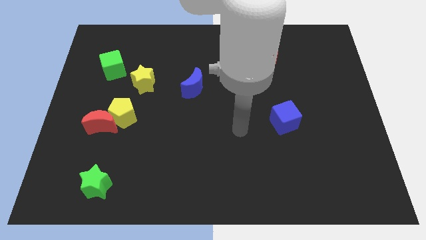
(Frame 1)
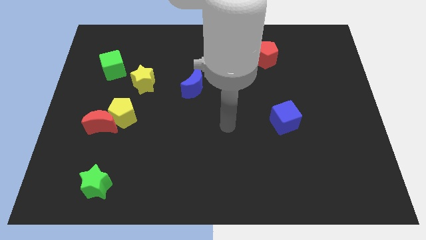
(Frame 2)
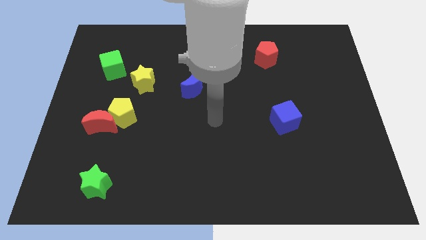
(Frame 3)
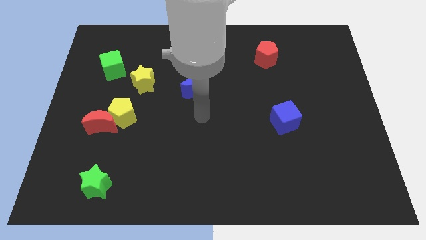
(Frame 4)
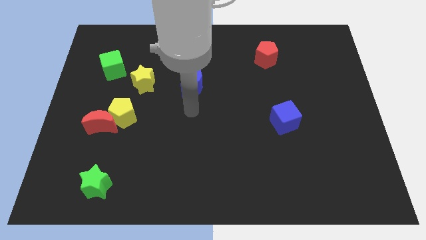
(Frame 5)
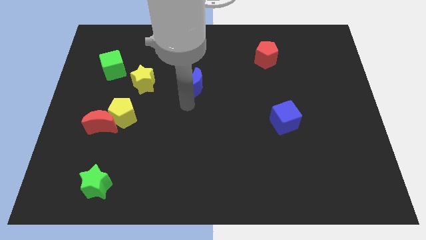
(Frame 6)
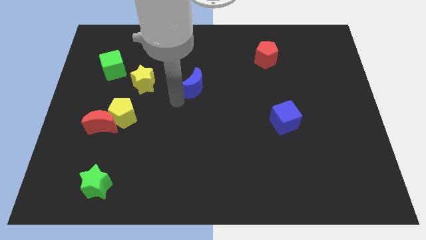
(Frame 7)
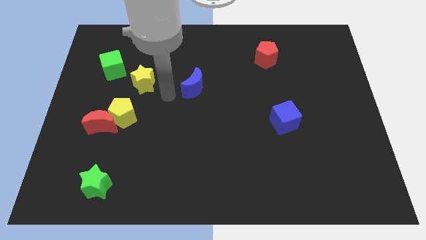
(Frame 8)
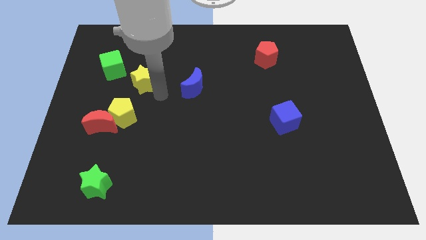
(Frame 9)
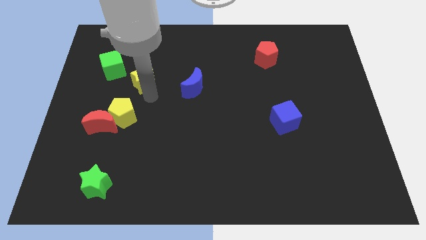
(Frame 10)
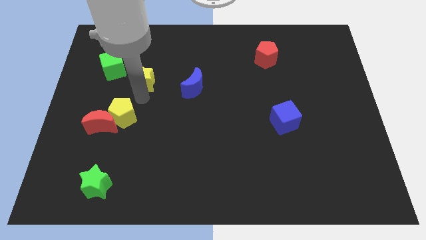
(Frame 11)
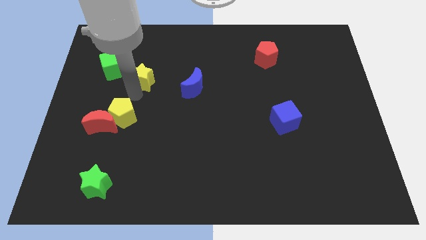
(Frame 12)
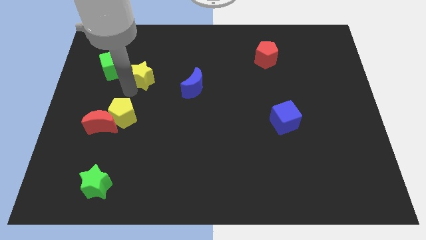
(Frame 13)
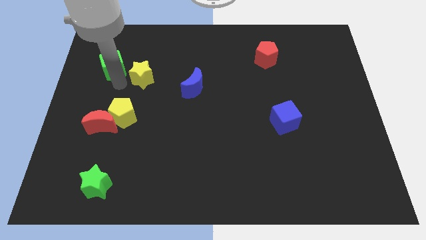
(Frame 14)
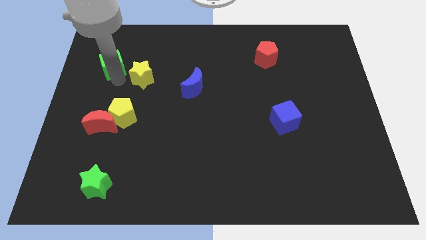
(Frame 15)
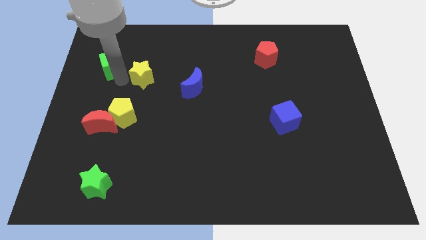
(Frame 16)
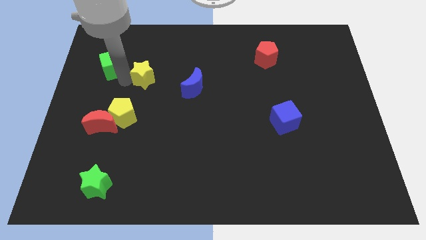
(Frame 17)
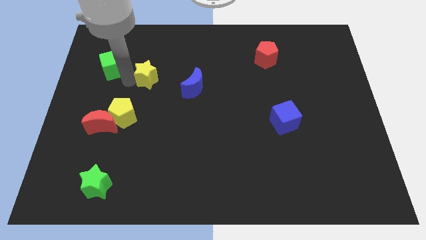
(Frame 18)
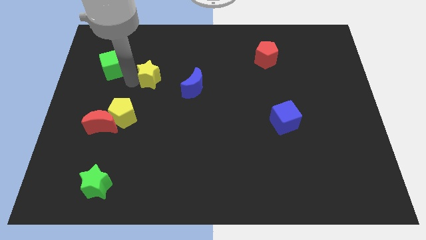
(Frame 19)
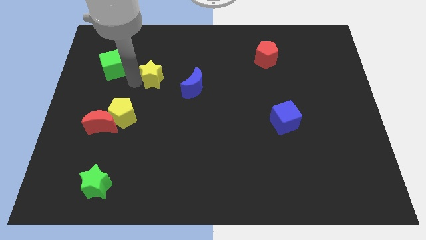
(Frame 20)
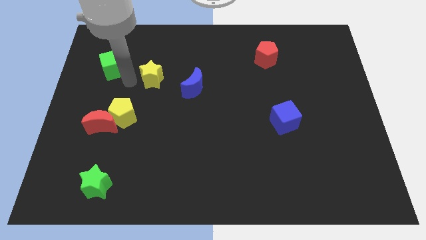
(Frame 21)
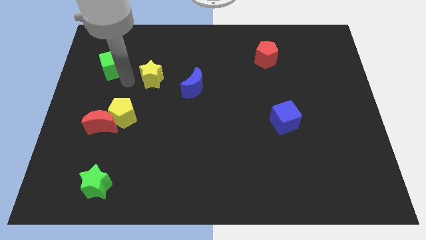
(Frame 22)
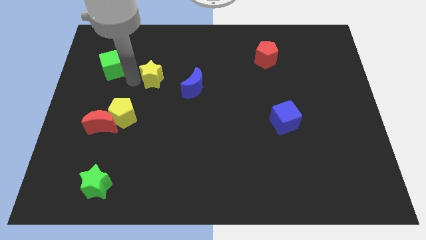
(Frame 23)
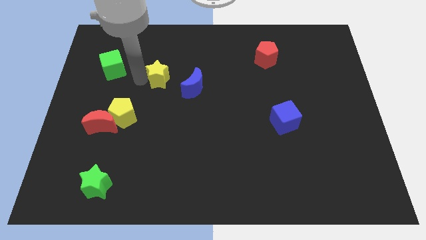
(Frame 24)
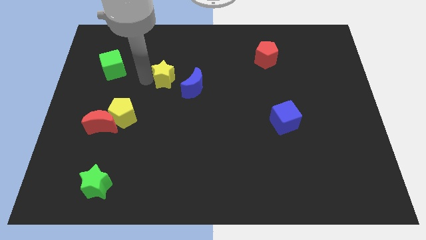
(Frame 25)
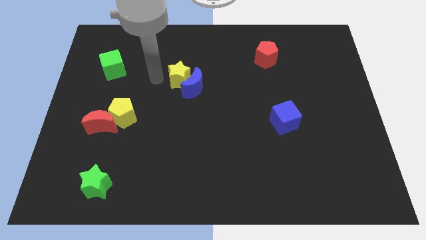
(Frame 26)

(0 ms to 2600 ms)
slide the yellow star right somewhat

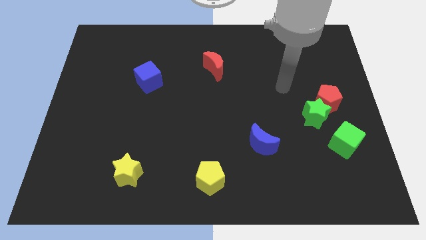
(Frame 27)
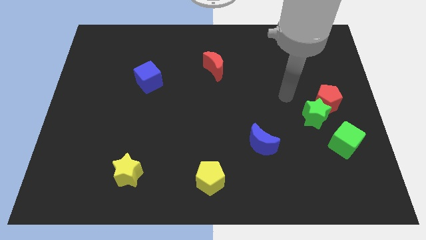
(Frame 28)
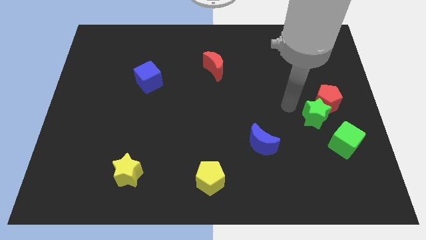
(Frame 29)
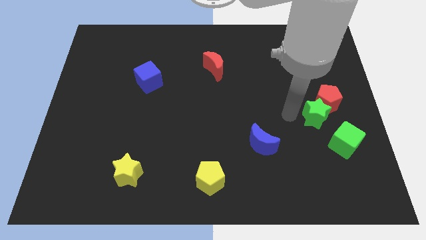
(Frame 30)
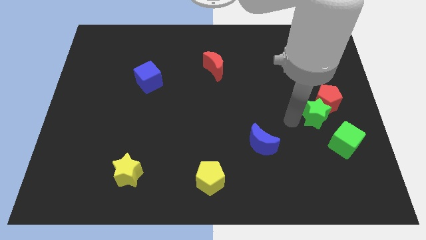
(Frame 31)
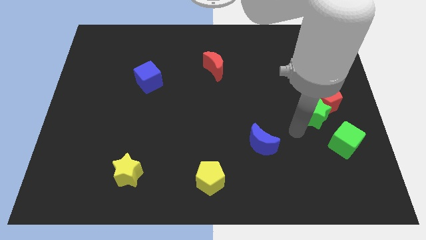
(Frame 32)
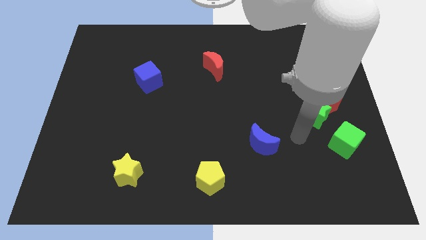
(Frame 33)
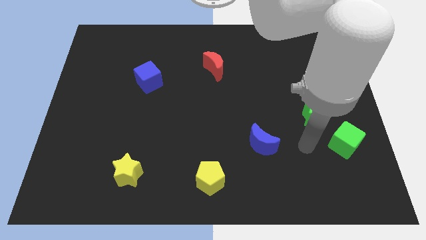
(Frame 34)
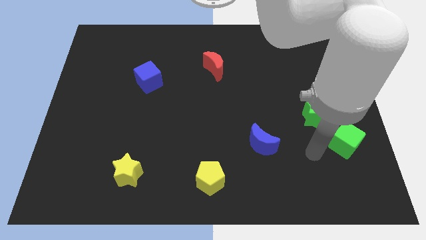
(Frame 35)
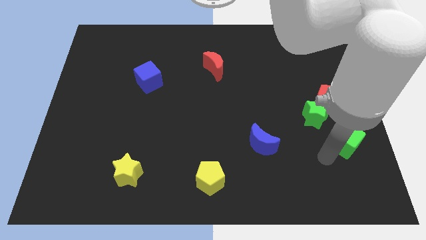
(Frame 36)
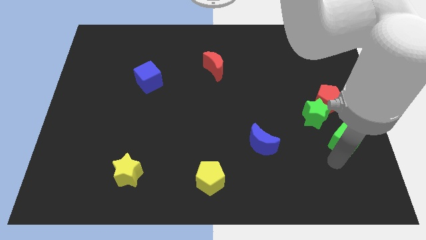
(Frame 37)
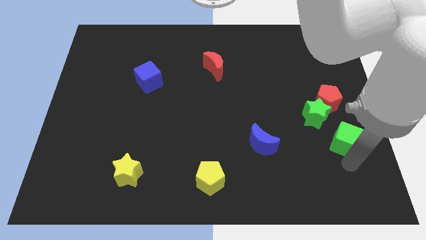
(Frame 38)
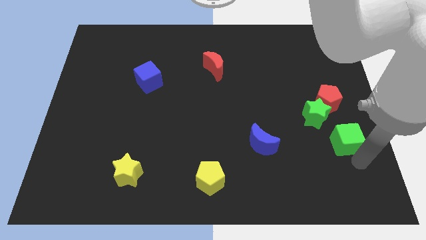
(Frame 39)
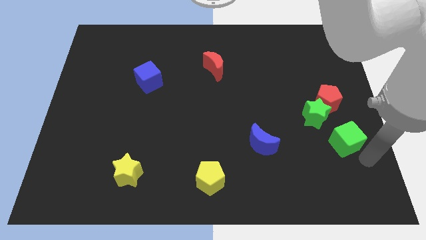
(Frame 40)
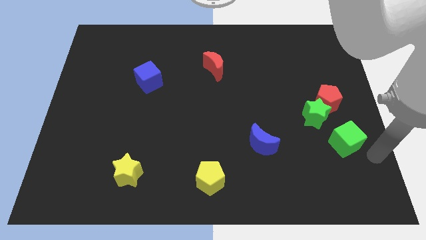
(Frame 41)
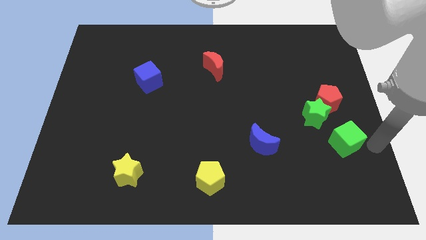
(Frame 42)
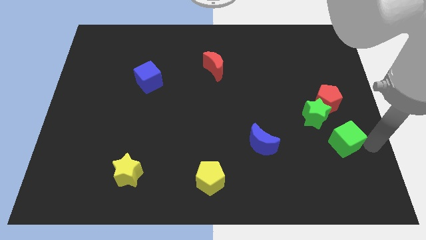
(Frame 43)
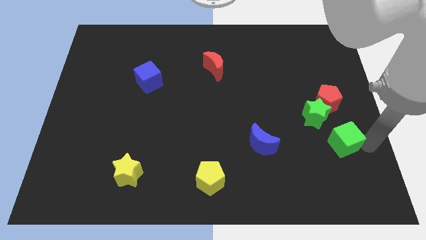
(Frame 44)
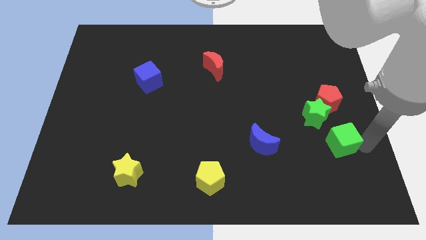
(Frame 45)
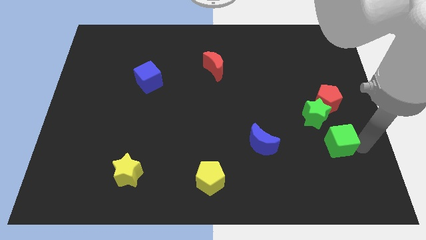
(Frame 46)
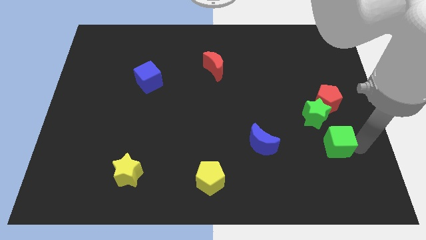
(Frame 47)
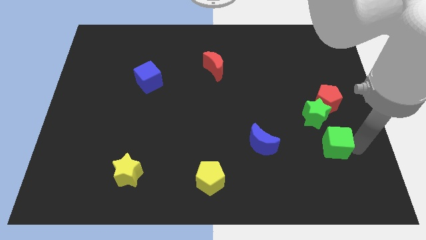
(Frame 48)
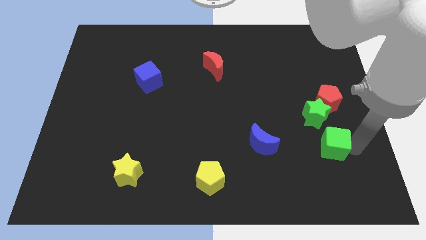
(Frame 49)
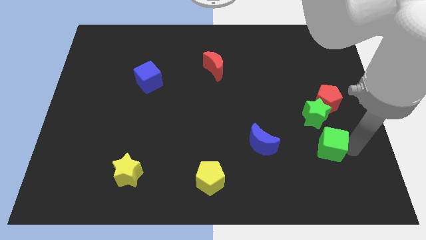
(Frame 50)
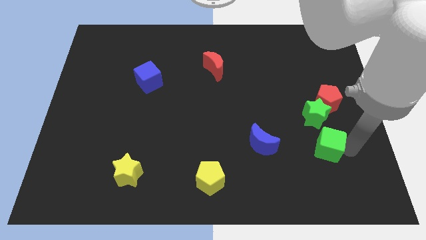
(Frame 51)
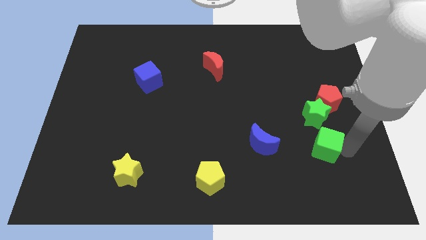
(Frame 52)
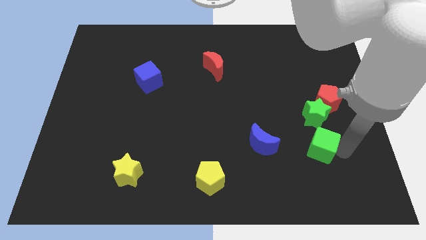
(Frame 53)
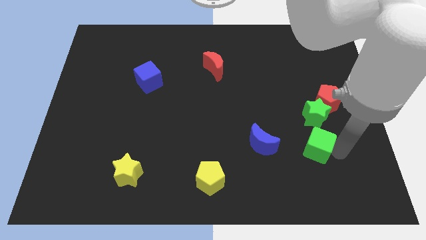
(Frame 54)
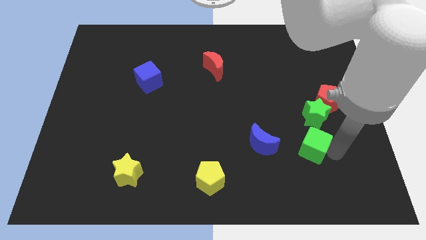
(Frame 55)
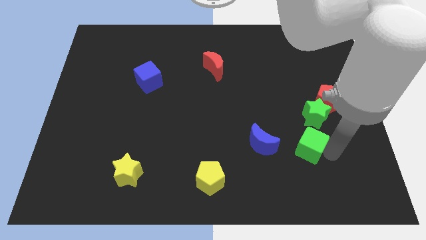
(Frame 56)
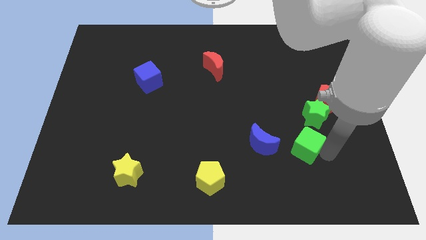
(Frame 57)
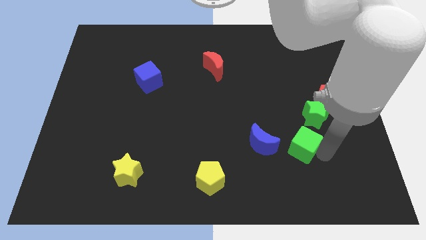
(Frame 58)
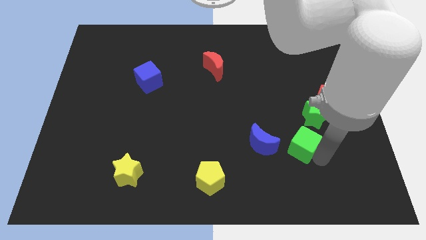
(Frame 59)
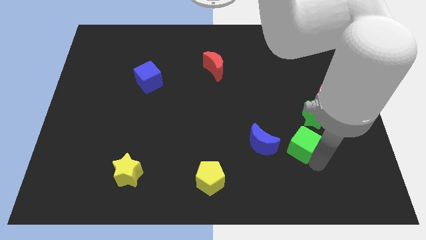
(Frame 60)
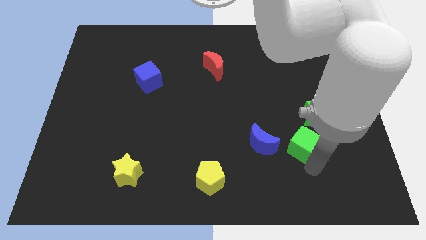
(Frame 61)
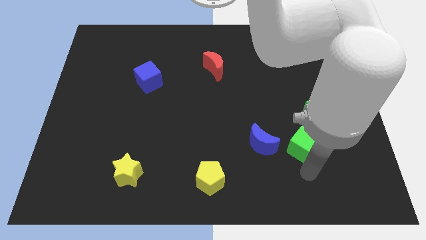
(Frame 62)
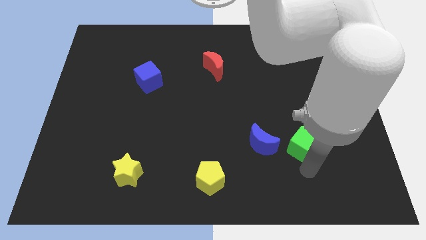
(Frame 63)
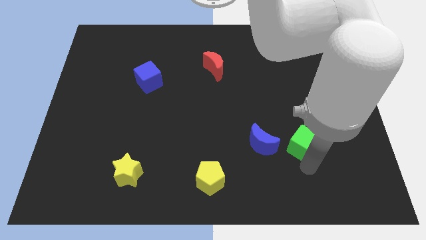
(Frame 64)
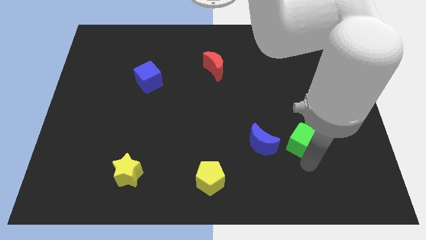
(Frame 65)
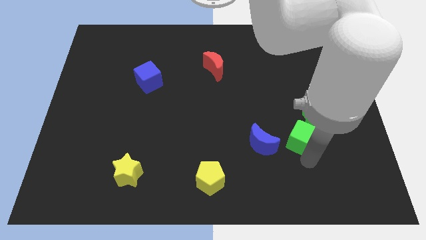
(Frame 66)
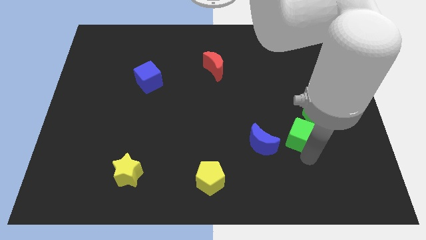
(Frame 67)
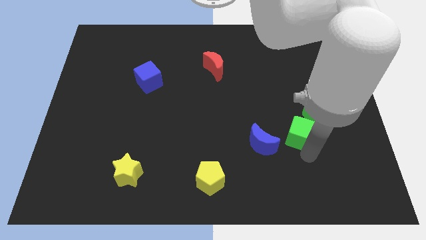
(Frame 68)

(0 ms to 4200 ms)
slightly slide the green cube diagonally upwards and to the left

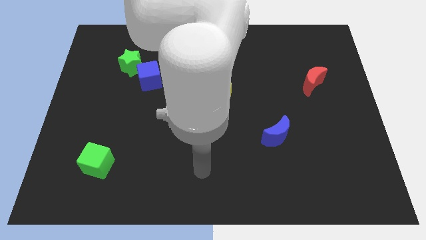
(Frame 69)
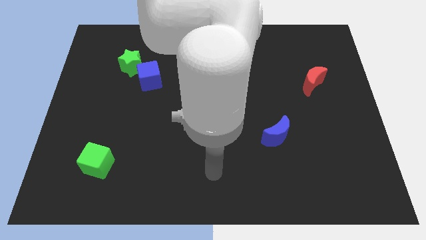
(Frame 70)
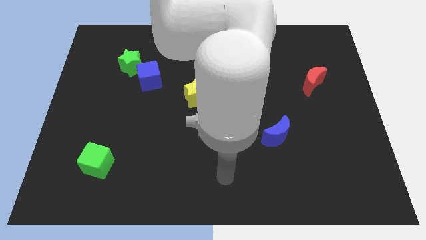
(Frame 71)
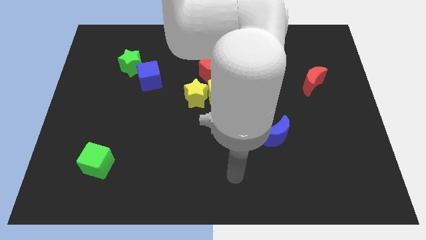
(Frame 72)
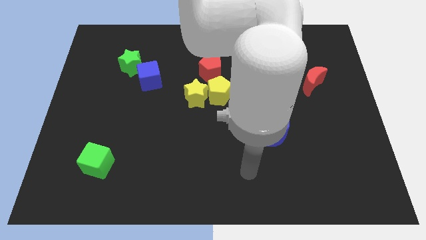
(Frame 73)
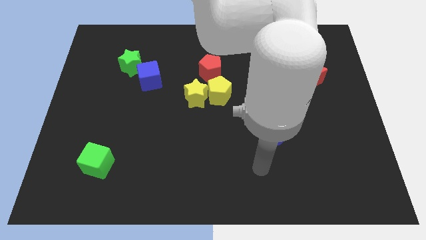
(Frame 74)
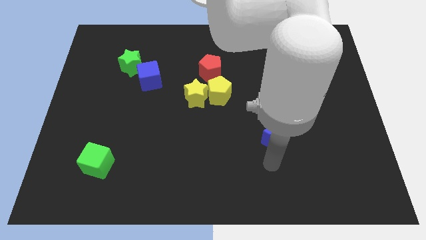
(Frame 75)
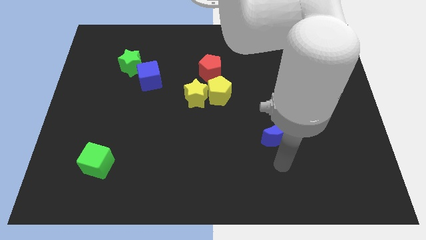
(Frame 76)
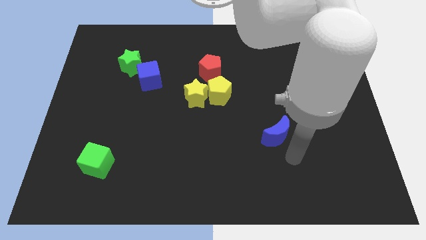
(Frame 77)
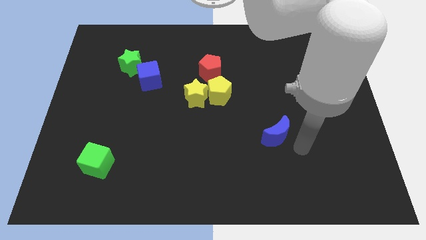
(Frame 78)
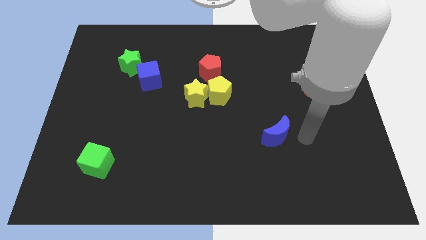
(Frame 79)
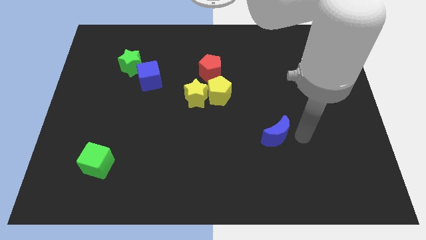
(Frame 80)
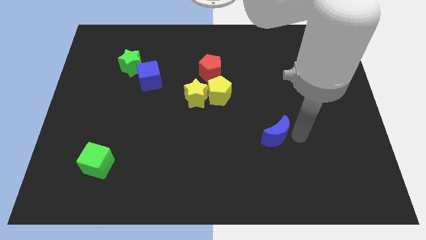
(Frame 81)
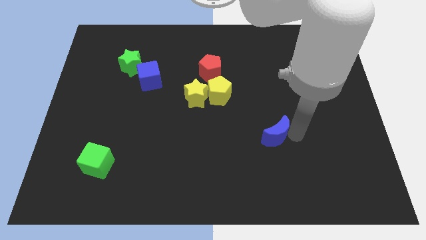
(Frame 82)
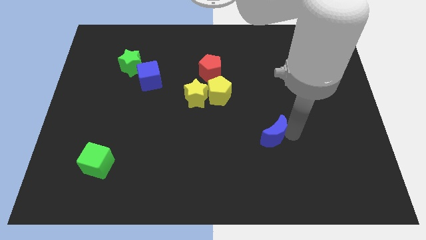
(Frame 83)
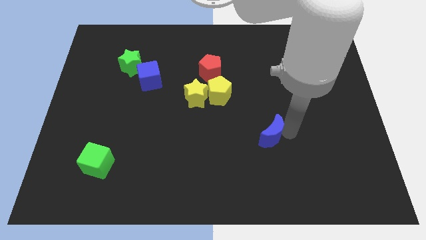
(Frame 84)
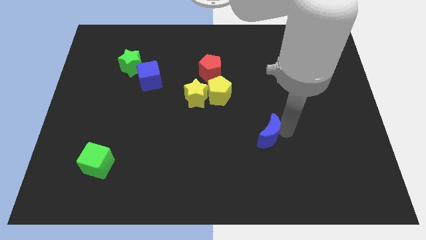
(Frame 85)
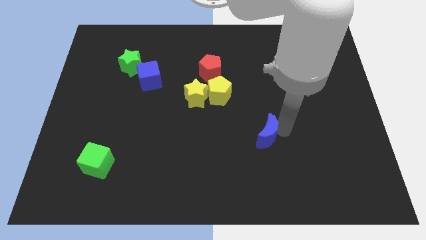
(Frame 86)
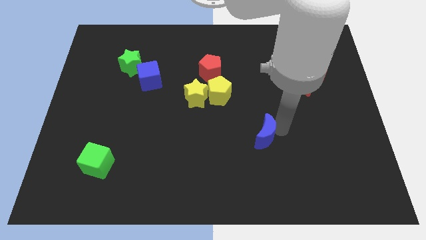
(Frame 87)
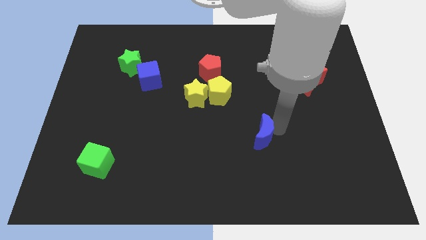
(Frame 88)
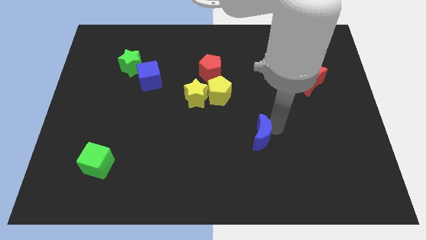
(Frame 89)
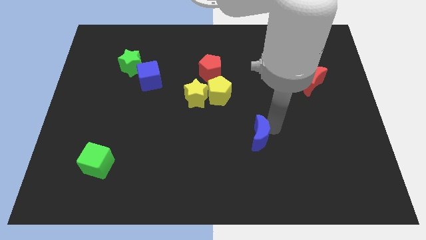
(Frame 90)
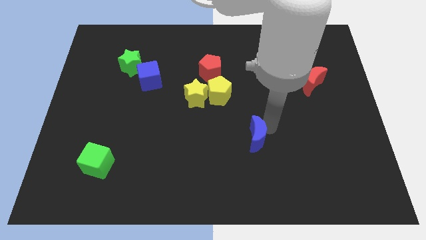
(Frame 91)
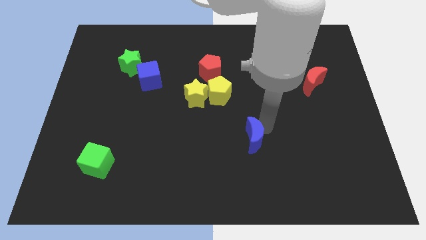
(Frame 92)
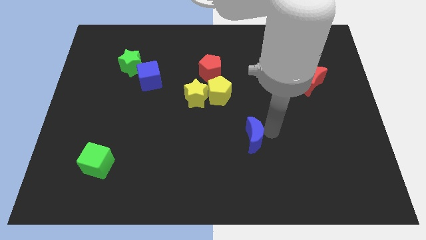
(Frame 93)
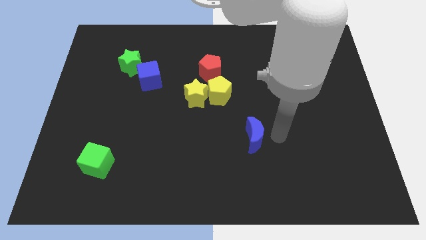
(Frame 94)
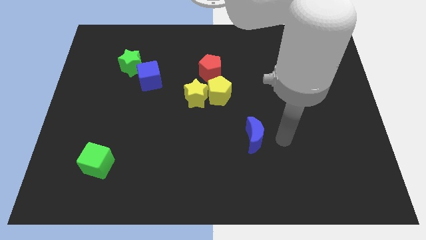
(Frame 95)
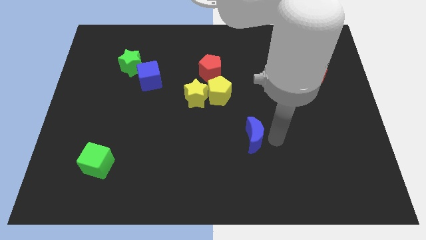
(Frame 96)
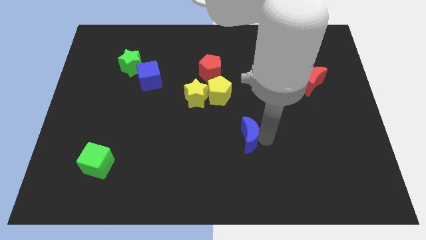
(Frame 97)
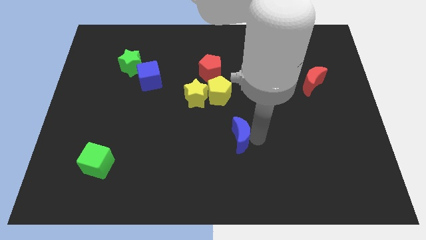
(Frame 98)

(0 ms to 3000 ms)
slightly push the blue moon to the left
